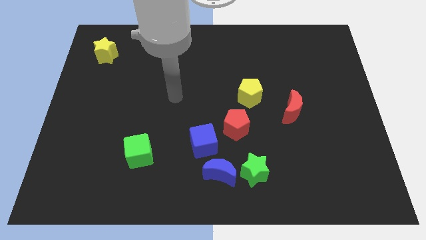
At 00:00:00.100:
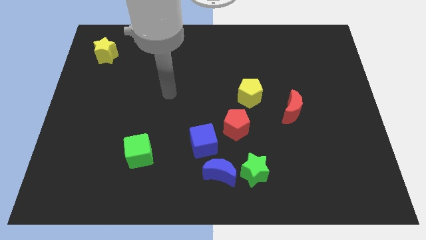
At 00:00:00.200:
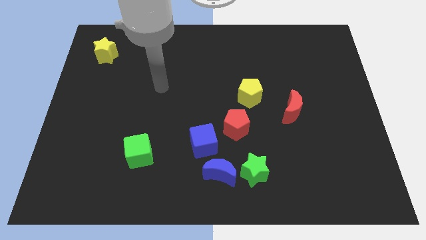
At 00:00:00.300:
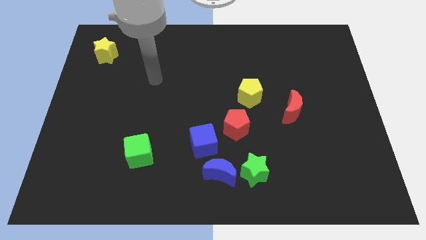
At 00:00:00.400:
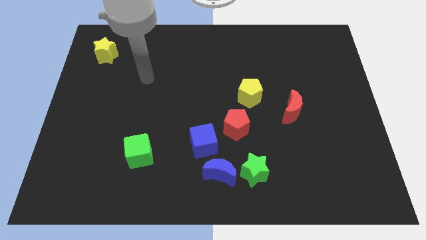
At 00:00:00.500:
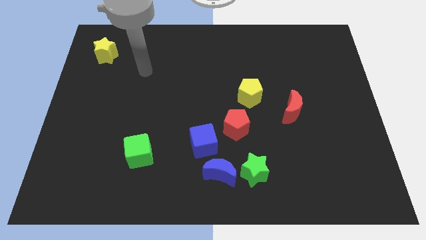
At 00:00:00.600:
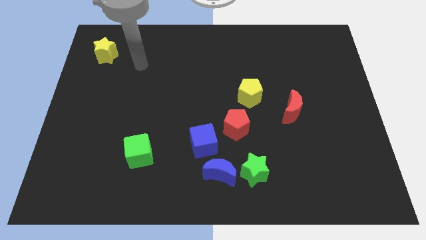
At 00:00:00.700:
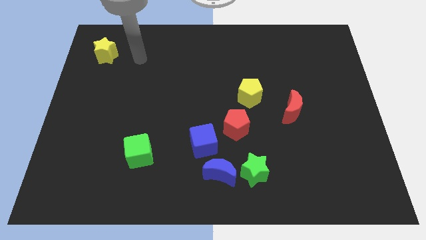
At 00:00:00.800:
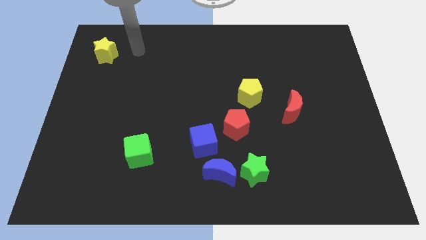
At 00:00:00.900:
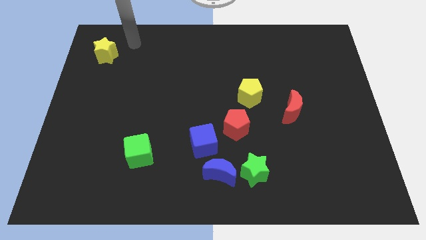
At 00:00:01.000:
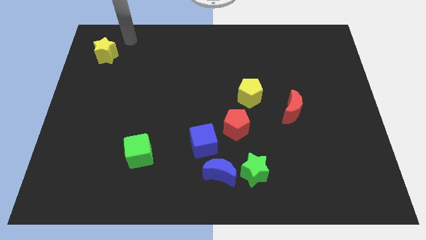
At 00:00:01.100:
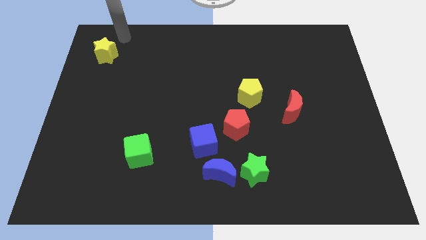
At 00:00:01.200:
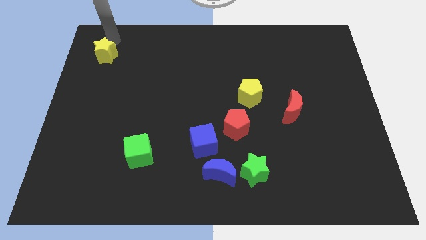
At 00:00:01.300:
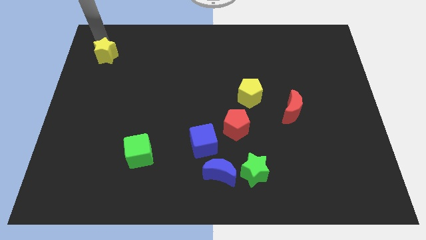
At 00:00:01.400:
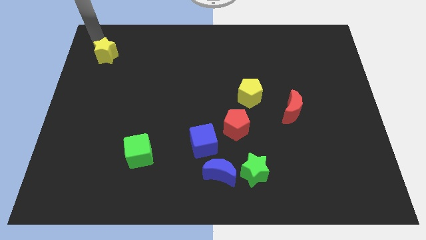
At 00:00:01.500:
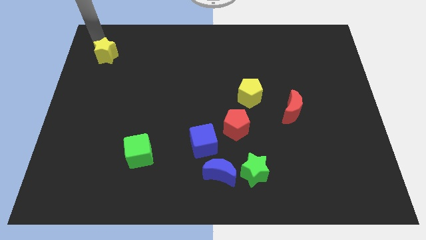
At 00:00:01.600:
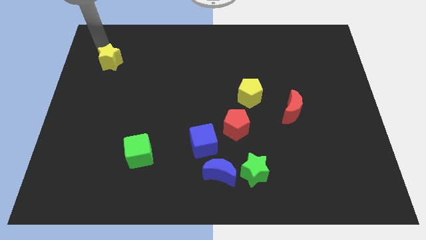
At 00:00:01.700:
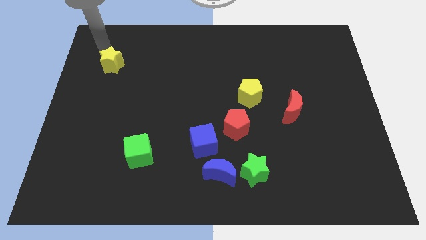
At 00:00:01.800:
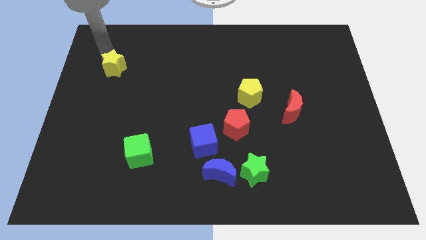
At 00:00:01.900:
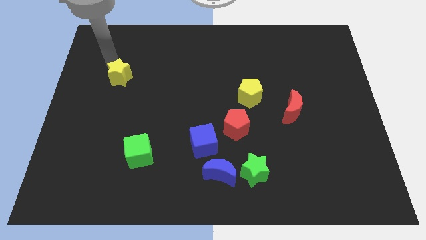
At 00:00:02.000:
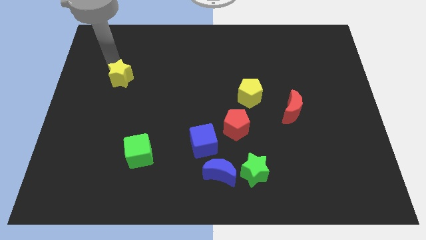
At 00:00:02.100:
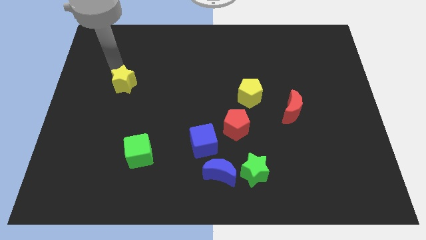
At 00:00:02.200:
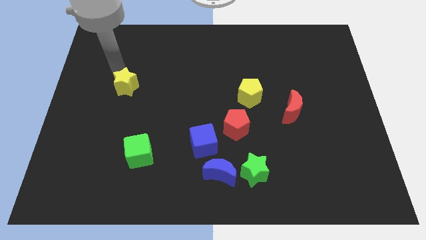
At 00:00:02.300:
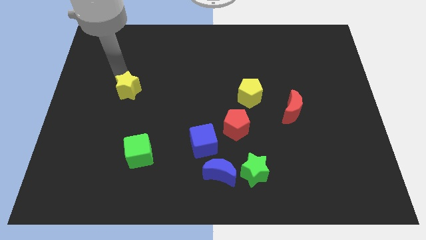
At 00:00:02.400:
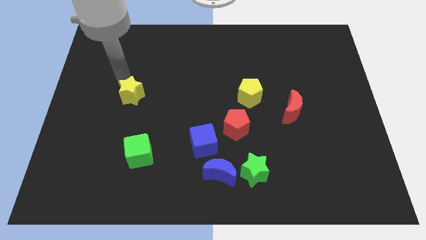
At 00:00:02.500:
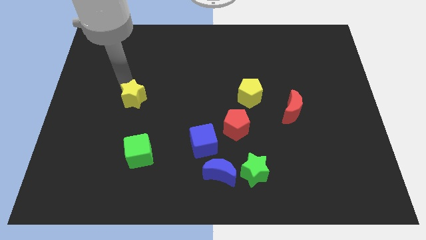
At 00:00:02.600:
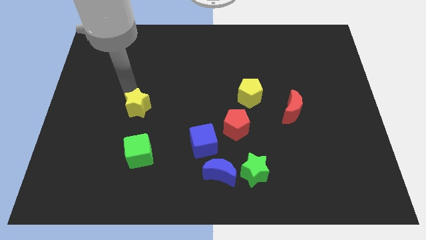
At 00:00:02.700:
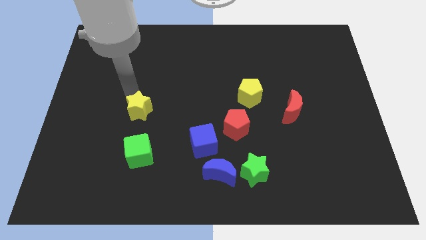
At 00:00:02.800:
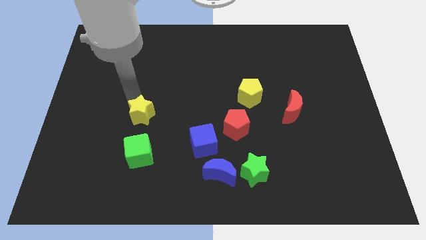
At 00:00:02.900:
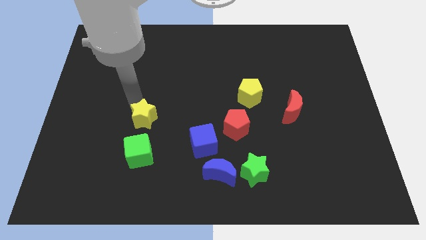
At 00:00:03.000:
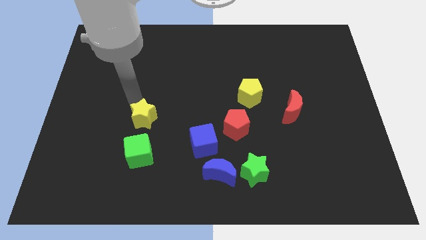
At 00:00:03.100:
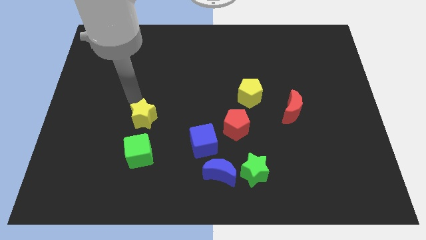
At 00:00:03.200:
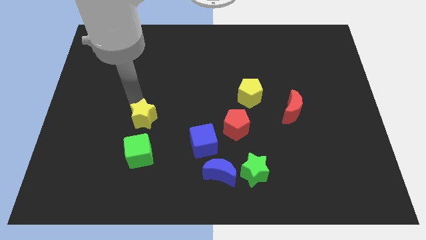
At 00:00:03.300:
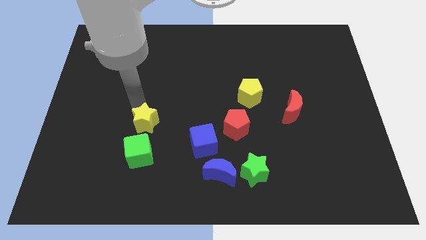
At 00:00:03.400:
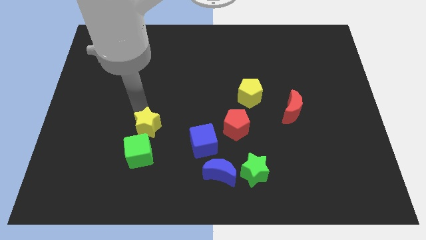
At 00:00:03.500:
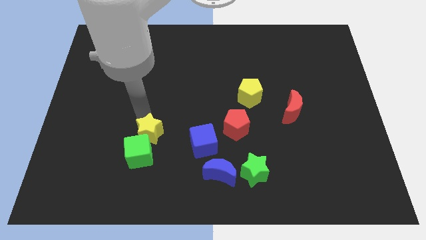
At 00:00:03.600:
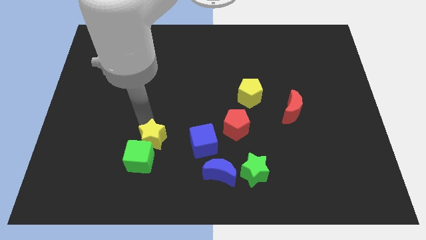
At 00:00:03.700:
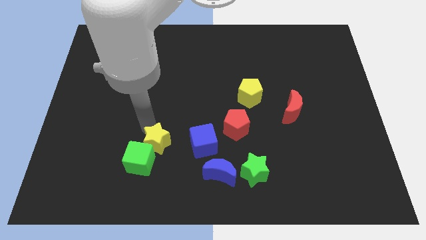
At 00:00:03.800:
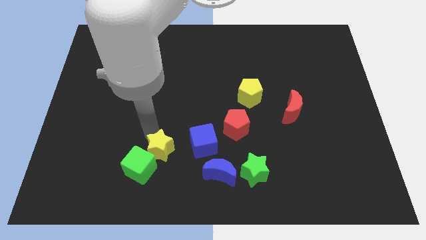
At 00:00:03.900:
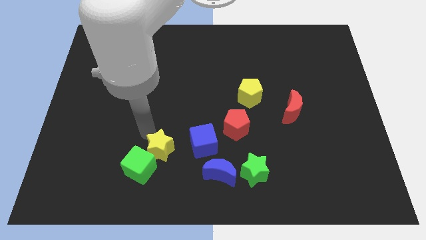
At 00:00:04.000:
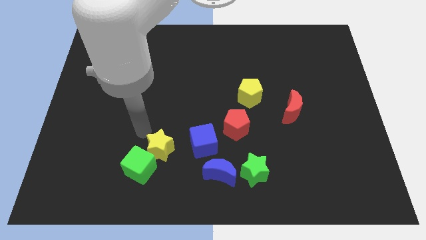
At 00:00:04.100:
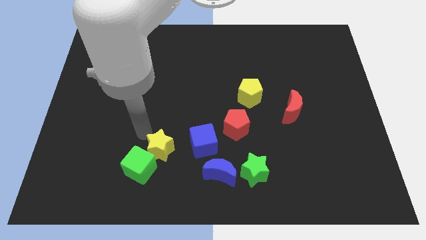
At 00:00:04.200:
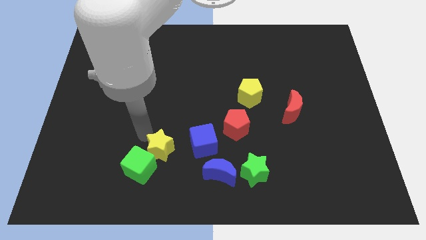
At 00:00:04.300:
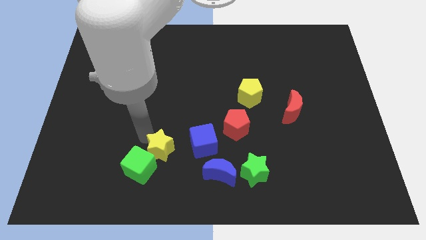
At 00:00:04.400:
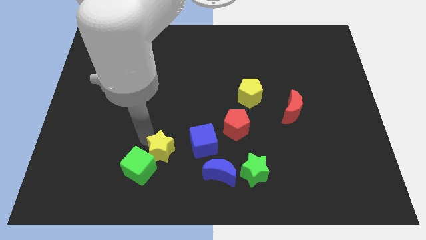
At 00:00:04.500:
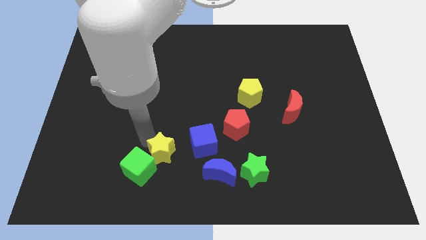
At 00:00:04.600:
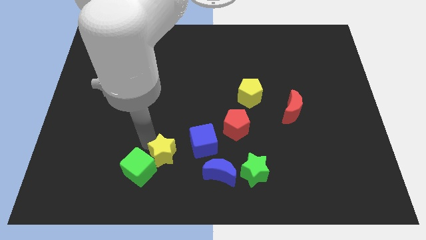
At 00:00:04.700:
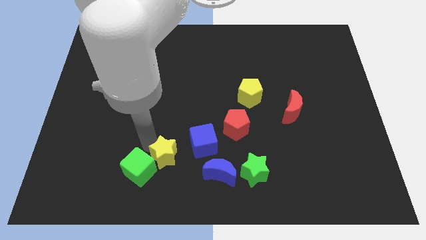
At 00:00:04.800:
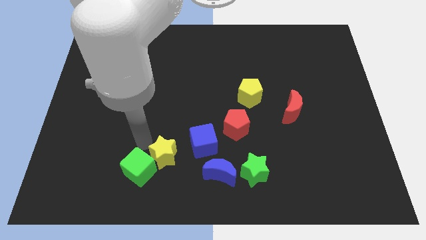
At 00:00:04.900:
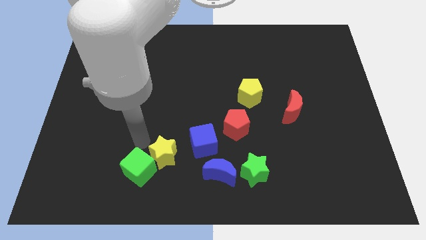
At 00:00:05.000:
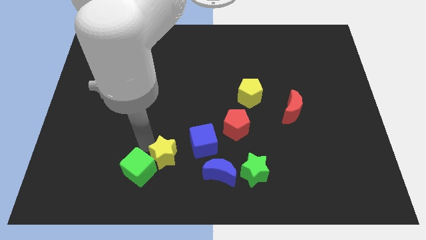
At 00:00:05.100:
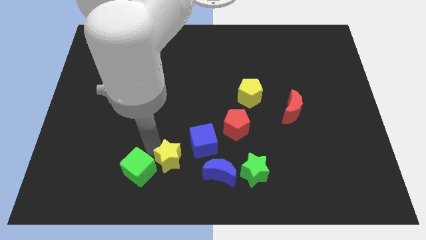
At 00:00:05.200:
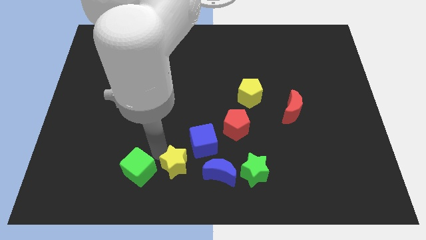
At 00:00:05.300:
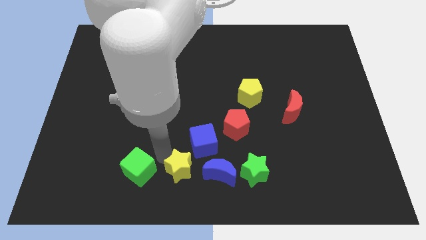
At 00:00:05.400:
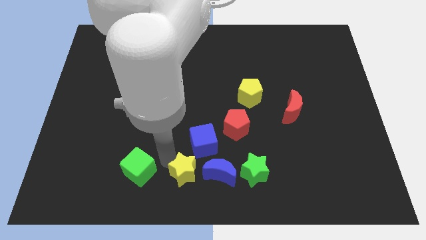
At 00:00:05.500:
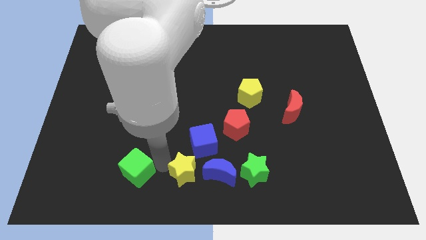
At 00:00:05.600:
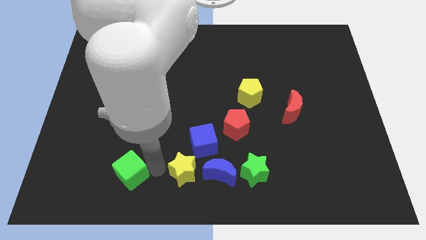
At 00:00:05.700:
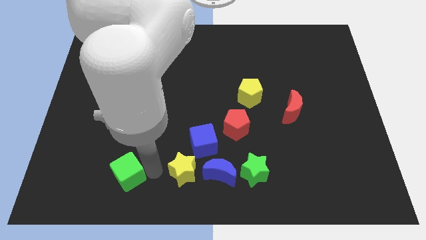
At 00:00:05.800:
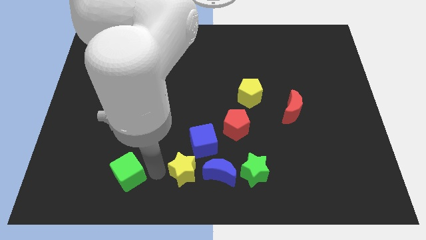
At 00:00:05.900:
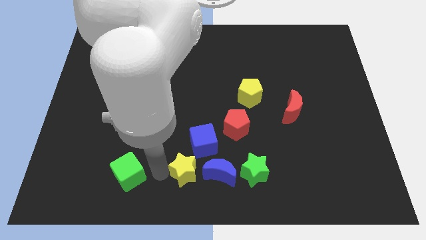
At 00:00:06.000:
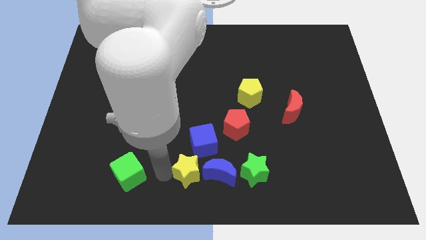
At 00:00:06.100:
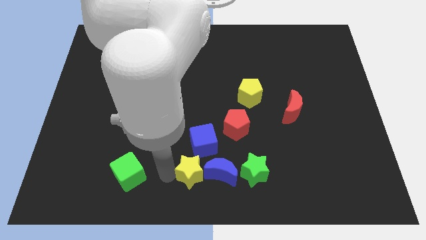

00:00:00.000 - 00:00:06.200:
slide the yellow star towards the blue moon

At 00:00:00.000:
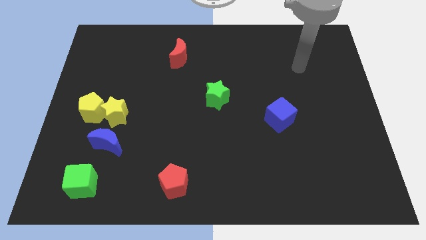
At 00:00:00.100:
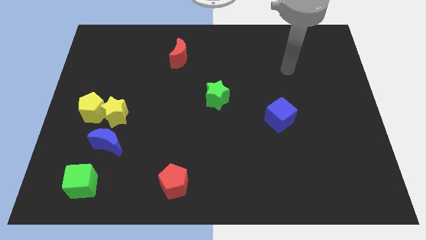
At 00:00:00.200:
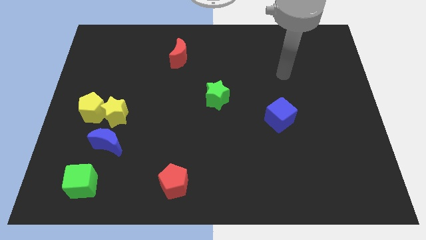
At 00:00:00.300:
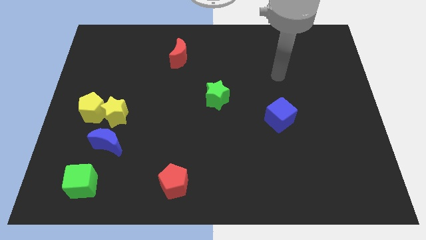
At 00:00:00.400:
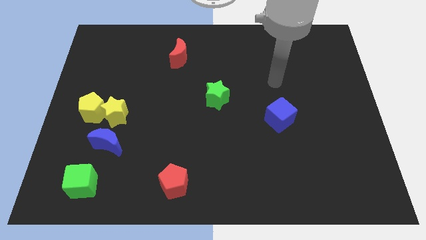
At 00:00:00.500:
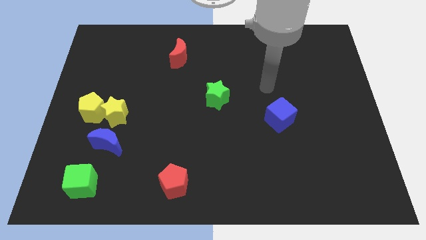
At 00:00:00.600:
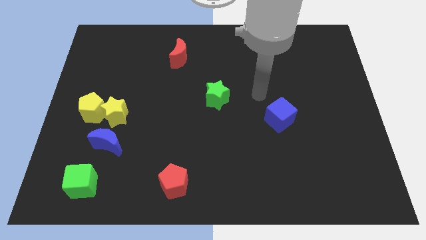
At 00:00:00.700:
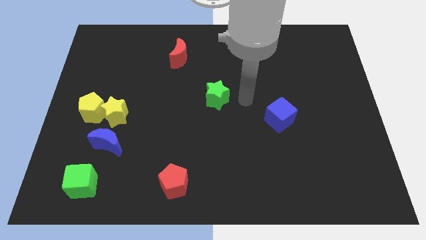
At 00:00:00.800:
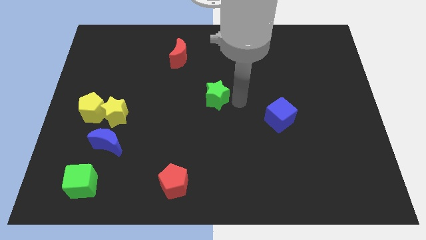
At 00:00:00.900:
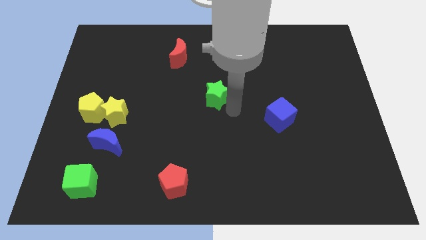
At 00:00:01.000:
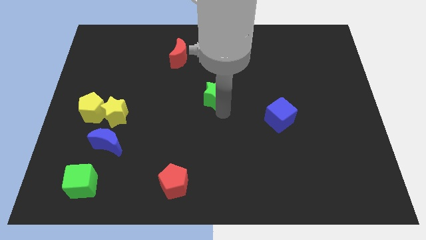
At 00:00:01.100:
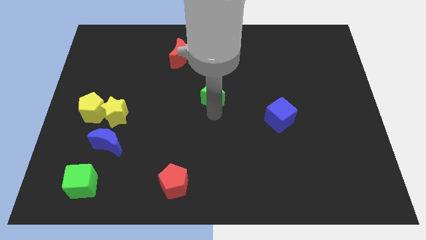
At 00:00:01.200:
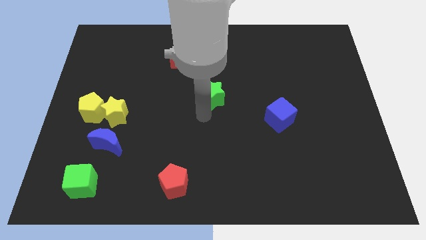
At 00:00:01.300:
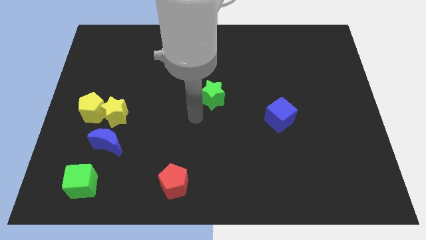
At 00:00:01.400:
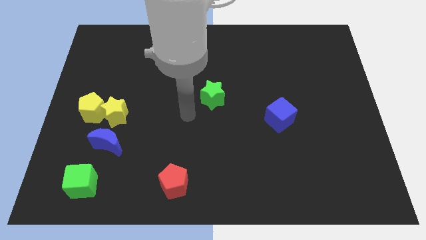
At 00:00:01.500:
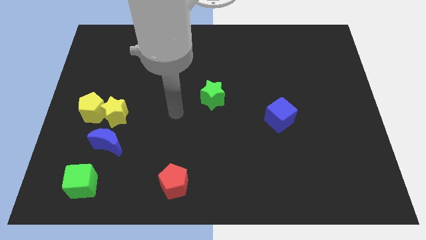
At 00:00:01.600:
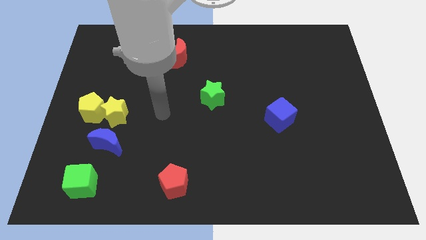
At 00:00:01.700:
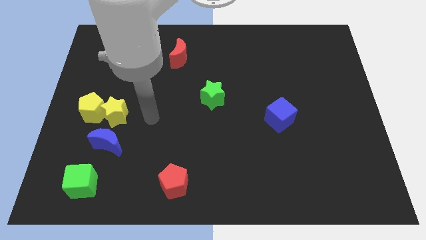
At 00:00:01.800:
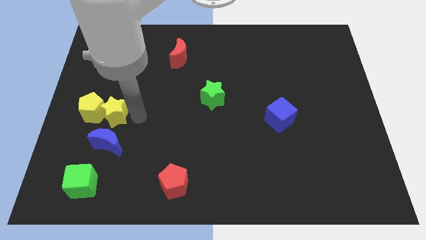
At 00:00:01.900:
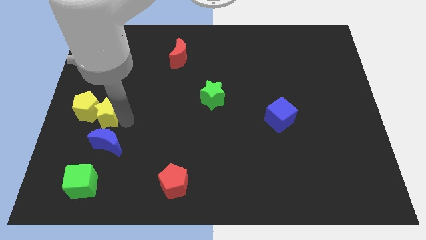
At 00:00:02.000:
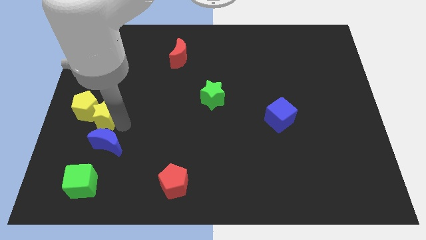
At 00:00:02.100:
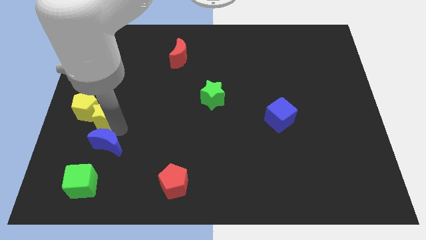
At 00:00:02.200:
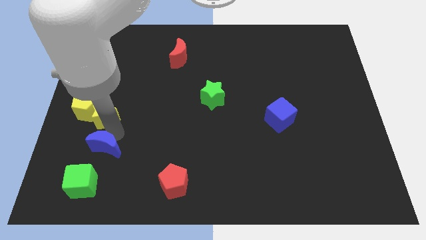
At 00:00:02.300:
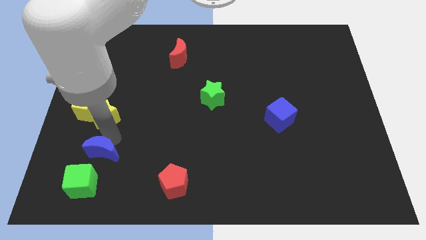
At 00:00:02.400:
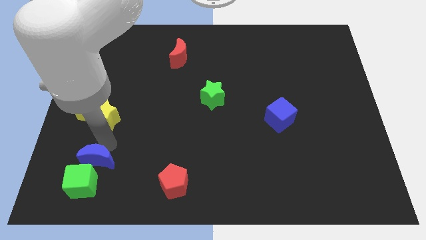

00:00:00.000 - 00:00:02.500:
push the blue moon to the green cube
